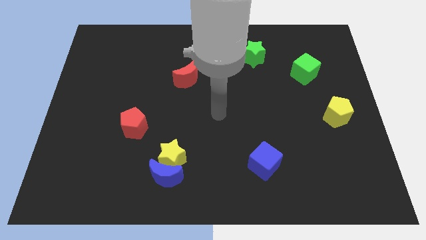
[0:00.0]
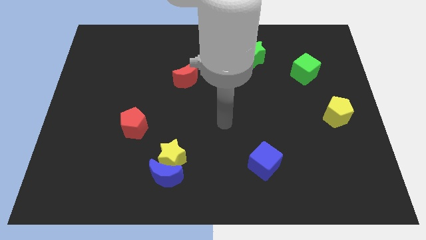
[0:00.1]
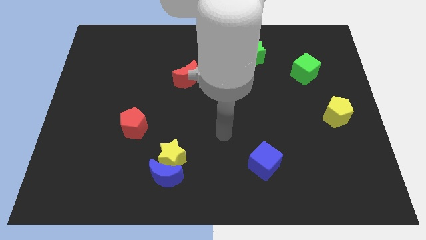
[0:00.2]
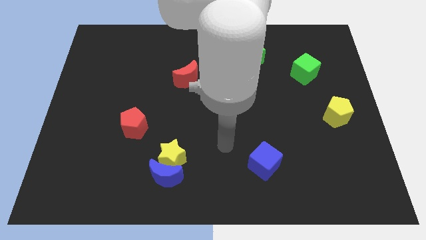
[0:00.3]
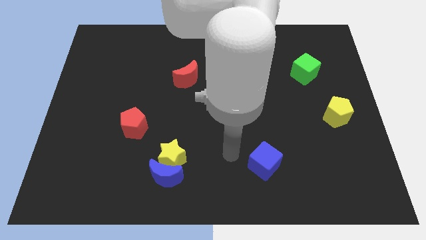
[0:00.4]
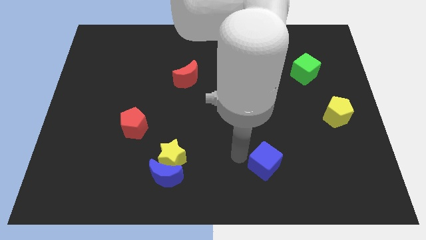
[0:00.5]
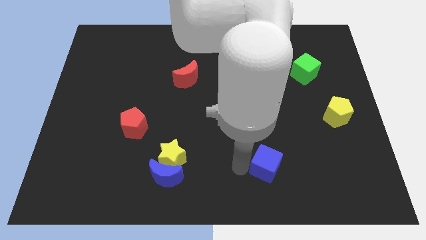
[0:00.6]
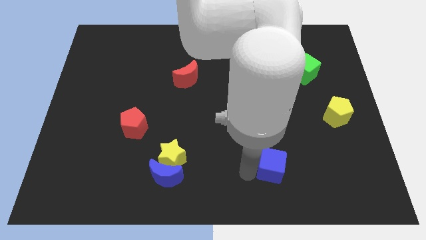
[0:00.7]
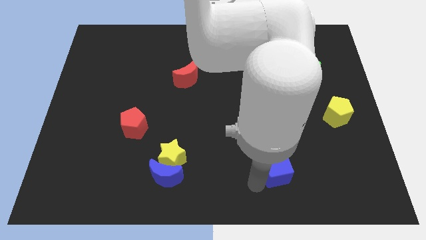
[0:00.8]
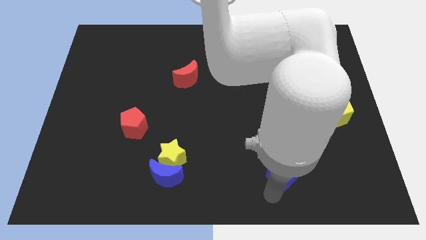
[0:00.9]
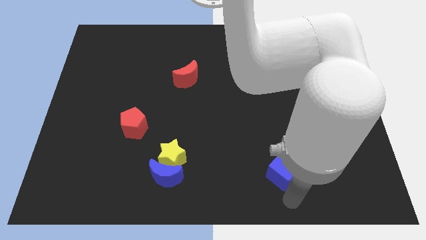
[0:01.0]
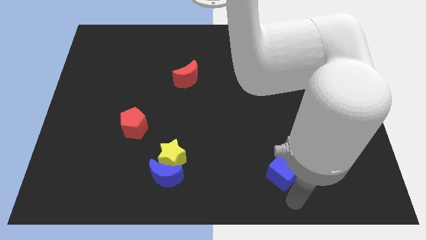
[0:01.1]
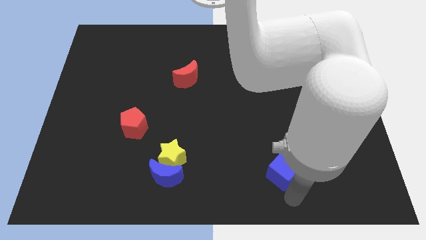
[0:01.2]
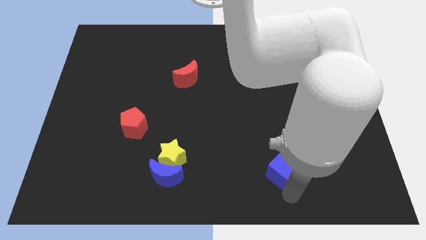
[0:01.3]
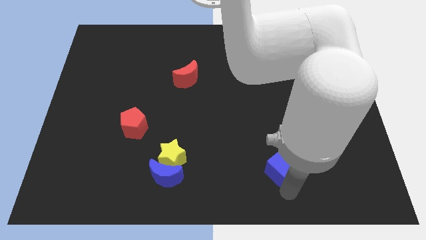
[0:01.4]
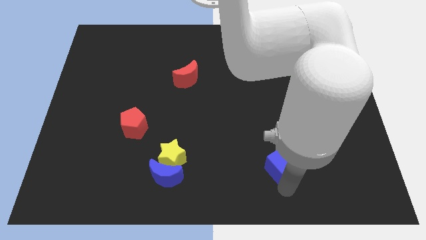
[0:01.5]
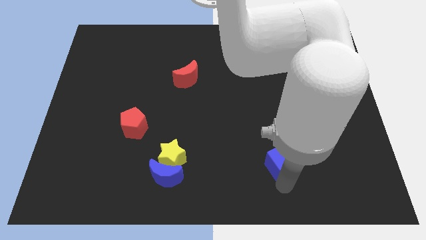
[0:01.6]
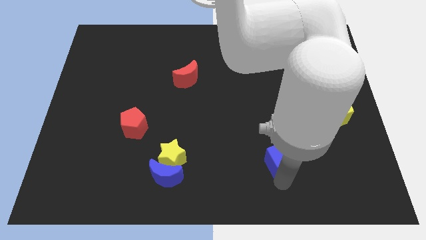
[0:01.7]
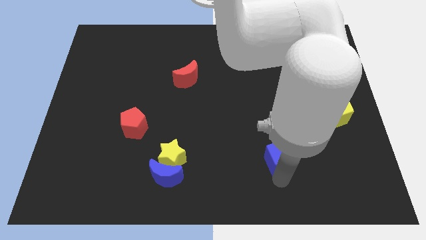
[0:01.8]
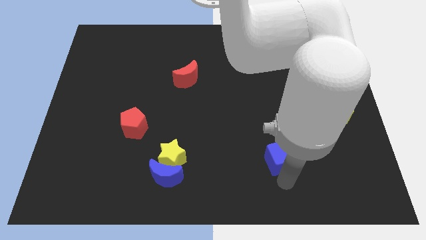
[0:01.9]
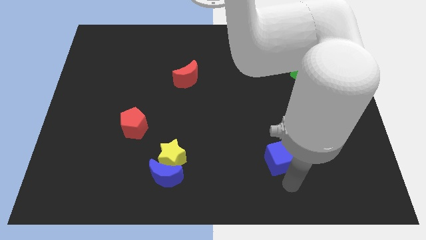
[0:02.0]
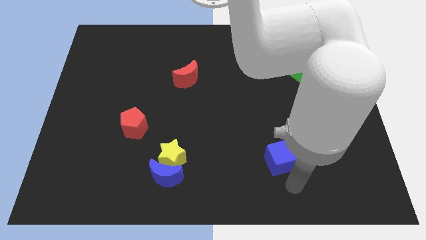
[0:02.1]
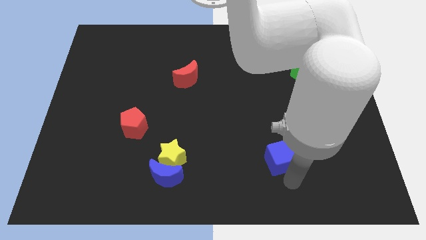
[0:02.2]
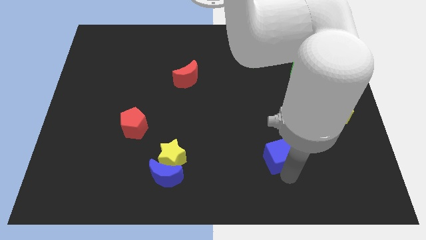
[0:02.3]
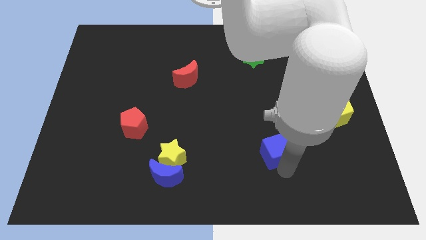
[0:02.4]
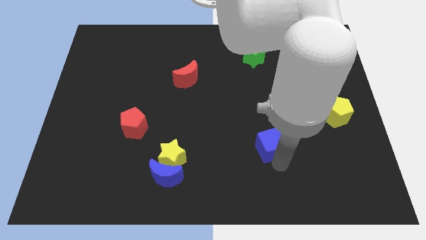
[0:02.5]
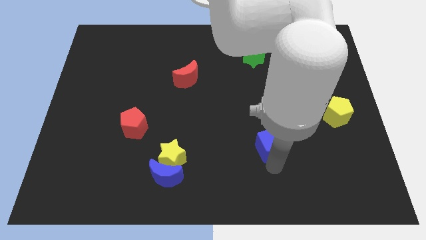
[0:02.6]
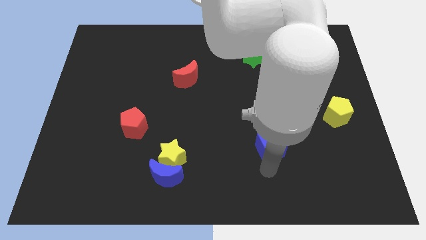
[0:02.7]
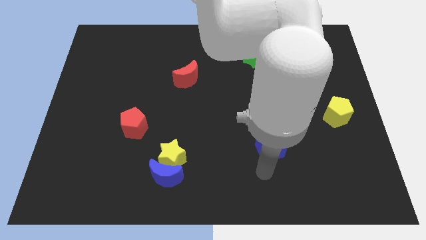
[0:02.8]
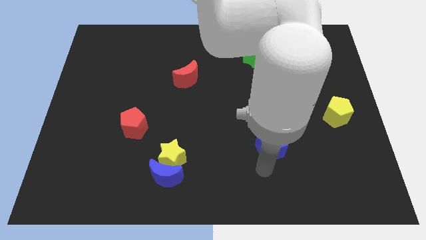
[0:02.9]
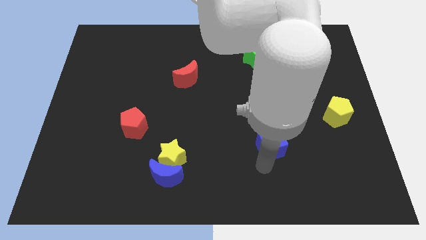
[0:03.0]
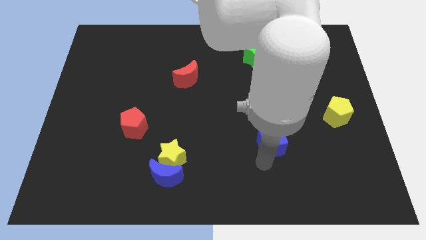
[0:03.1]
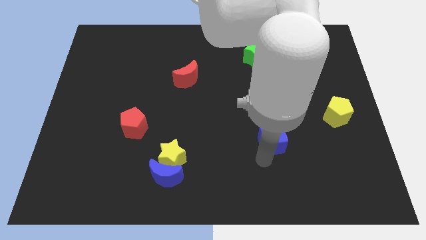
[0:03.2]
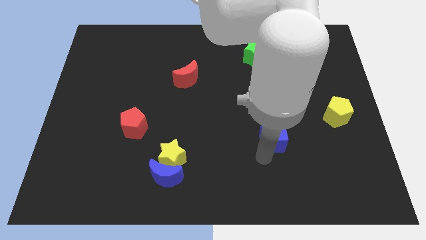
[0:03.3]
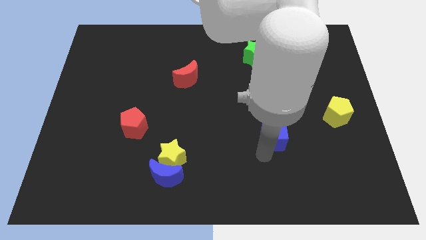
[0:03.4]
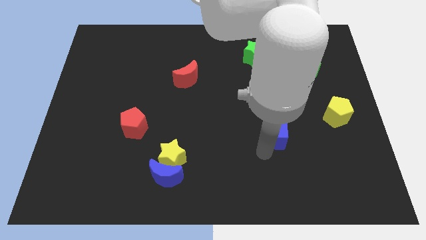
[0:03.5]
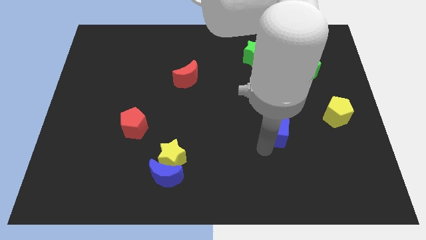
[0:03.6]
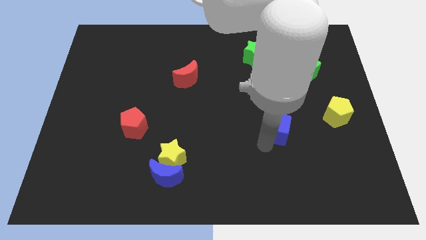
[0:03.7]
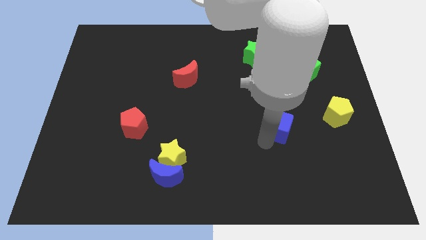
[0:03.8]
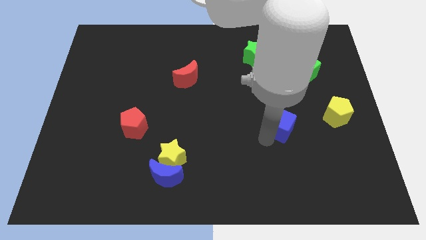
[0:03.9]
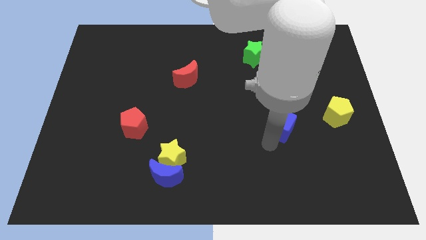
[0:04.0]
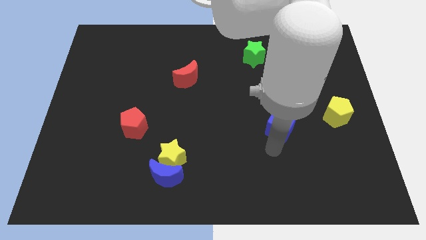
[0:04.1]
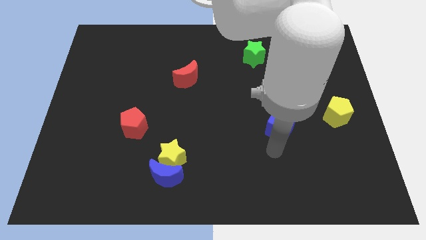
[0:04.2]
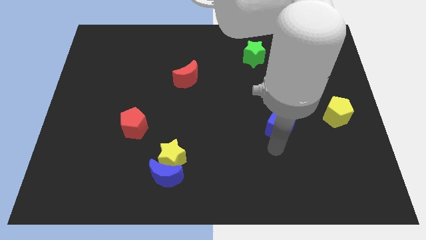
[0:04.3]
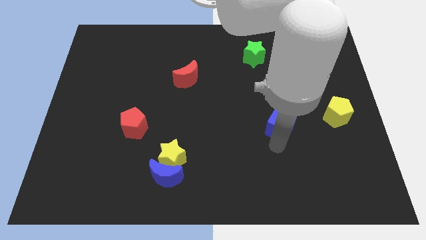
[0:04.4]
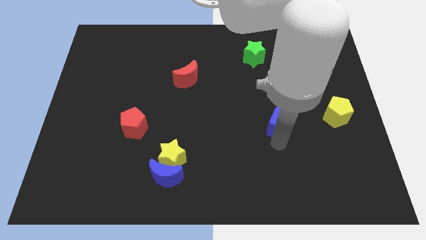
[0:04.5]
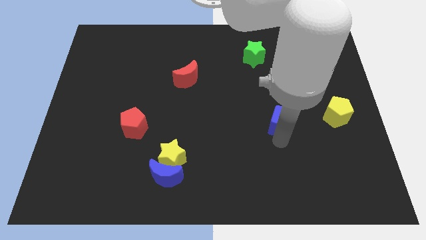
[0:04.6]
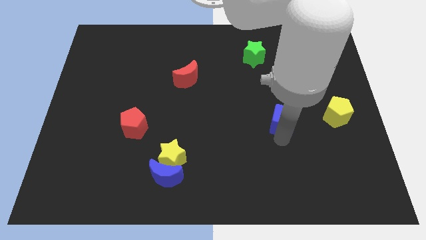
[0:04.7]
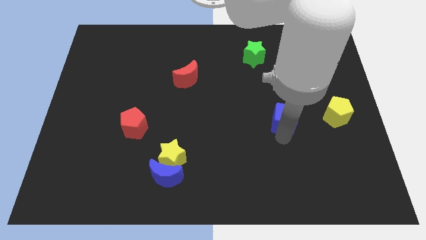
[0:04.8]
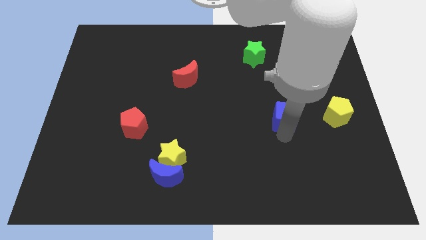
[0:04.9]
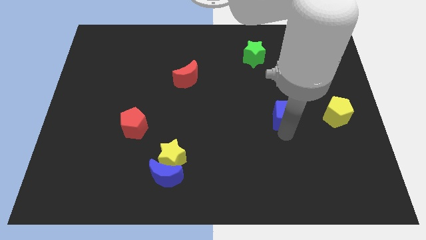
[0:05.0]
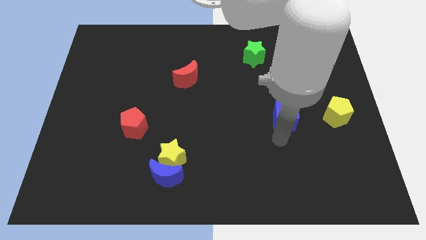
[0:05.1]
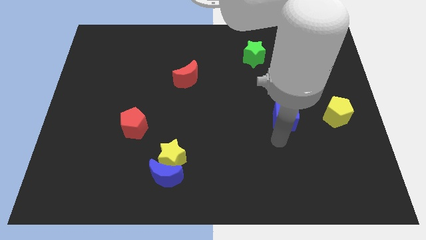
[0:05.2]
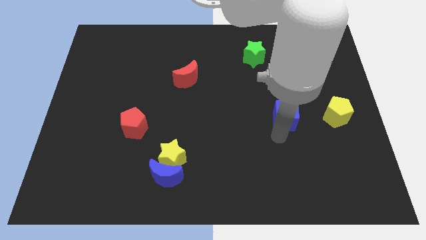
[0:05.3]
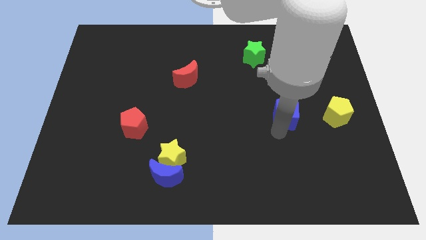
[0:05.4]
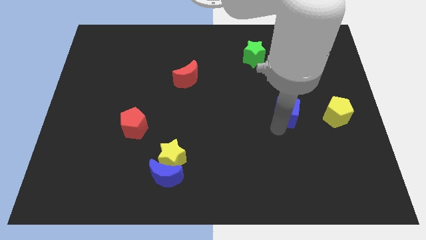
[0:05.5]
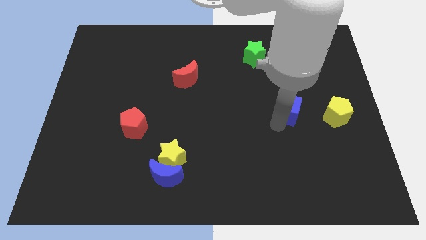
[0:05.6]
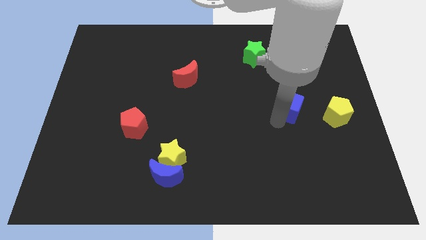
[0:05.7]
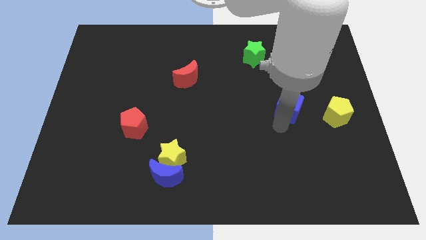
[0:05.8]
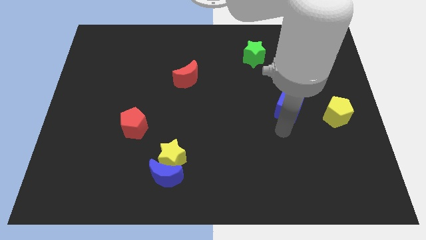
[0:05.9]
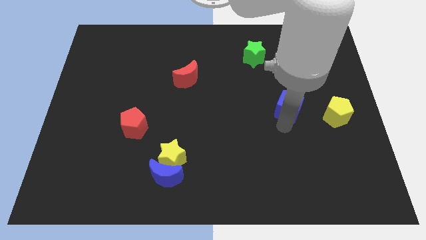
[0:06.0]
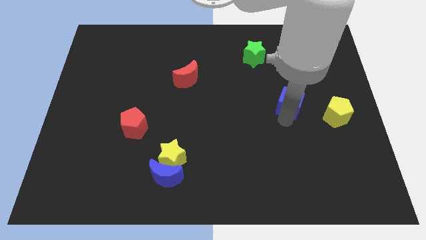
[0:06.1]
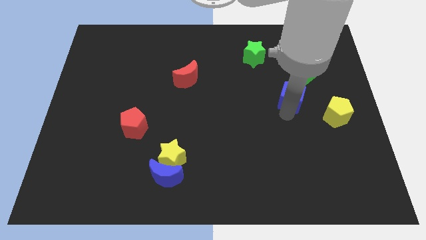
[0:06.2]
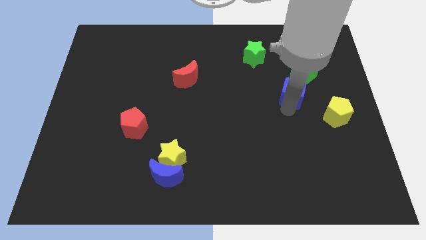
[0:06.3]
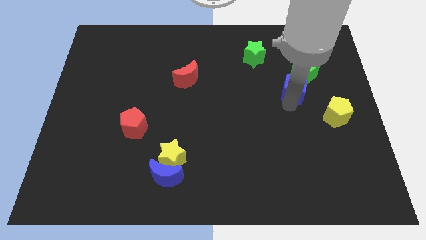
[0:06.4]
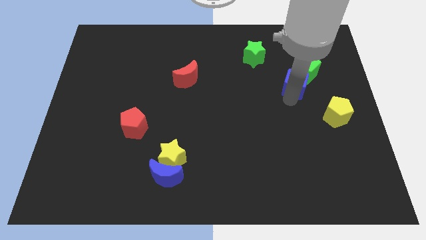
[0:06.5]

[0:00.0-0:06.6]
move the blue cube close to the green cube

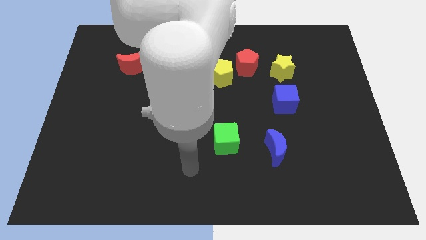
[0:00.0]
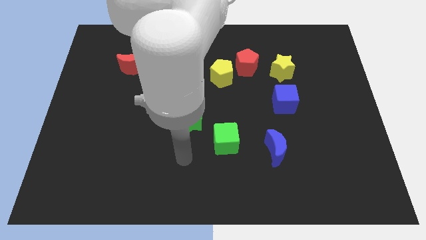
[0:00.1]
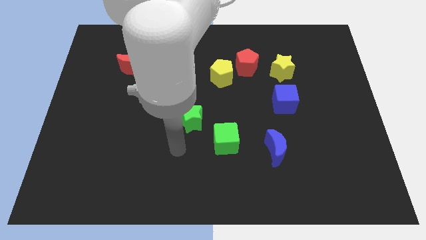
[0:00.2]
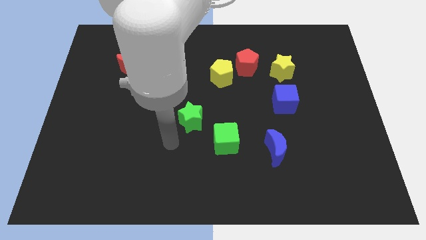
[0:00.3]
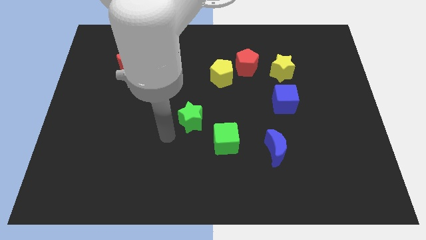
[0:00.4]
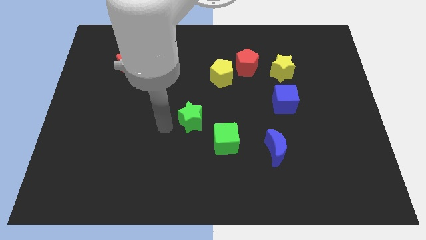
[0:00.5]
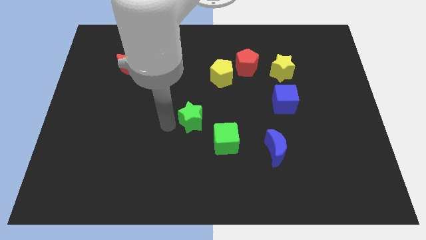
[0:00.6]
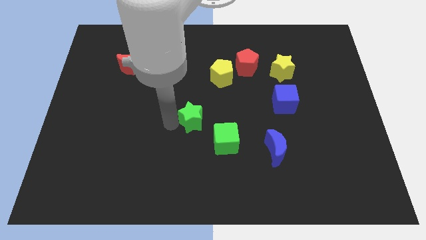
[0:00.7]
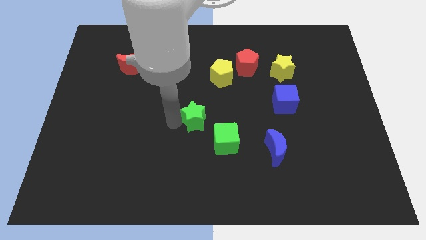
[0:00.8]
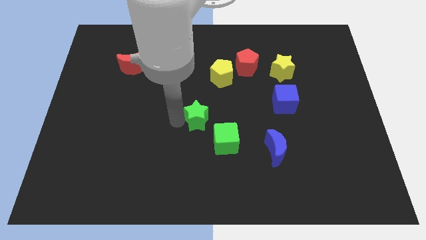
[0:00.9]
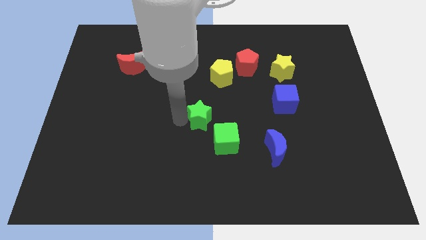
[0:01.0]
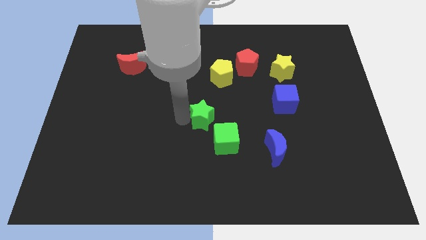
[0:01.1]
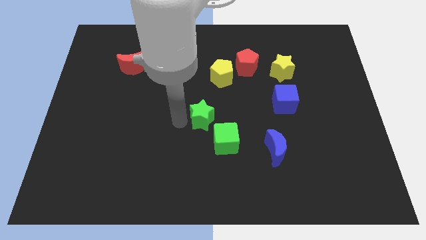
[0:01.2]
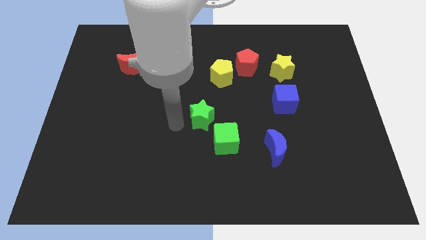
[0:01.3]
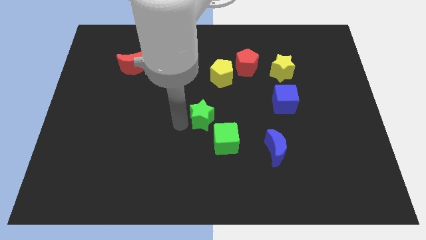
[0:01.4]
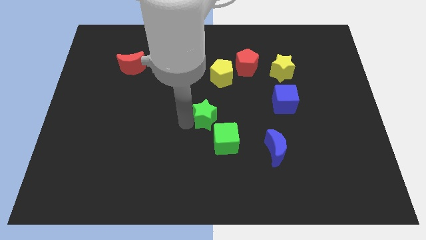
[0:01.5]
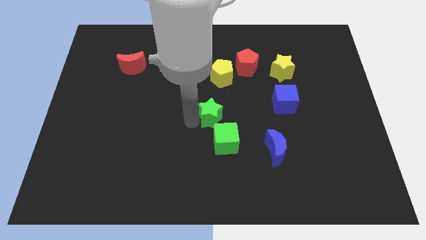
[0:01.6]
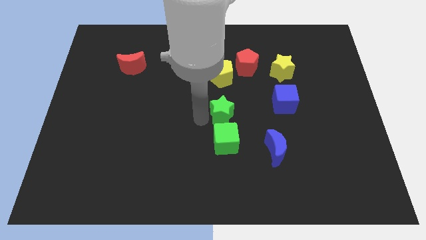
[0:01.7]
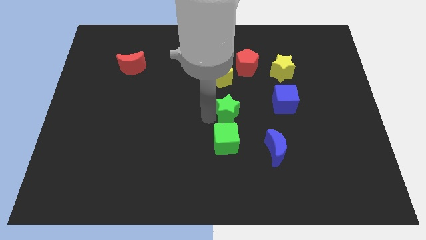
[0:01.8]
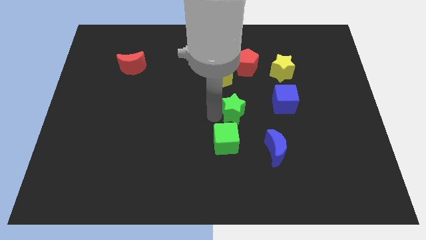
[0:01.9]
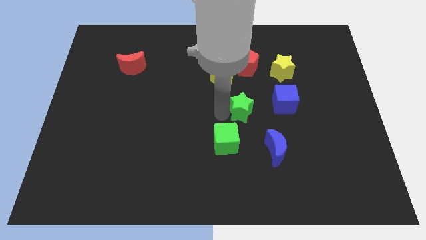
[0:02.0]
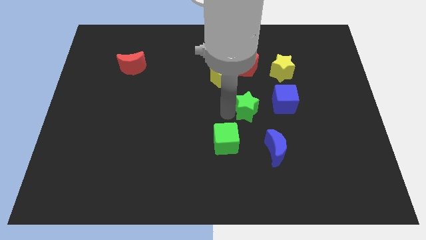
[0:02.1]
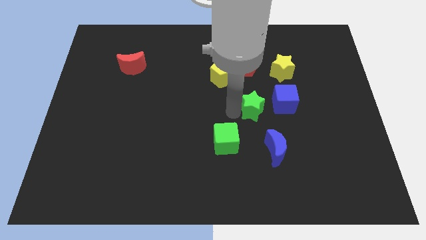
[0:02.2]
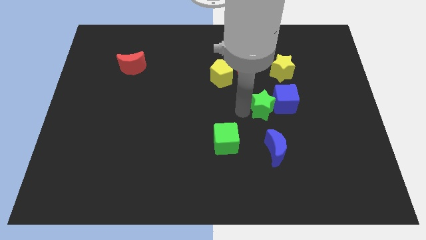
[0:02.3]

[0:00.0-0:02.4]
push the green star close to the blue cube
